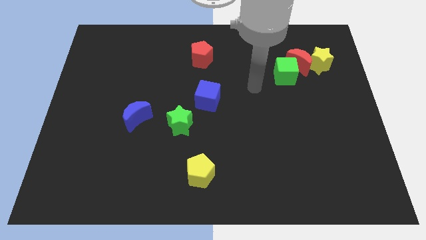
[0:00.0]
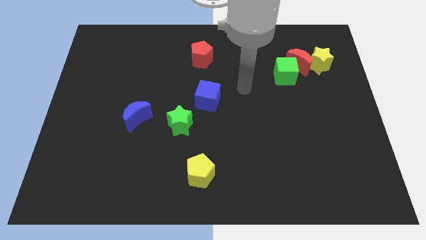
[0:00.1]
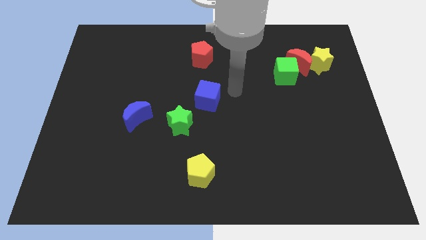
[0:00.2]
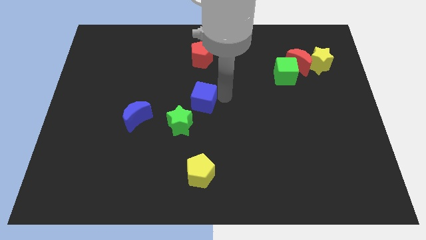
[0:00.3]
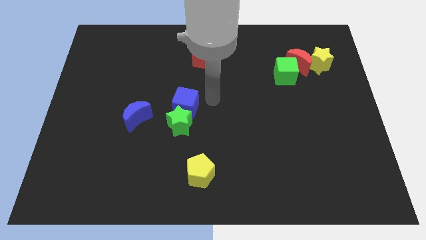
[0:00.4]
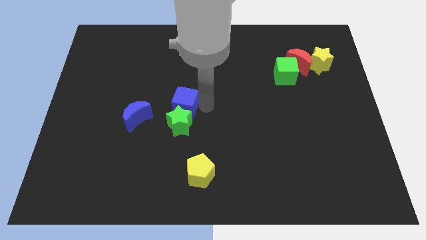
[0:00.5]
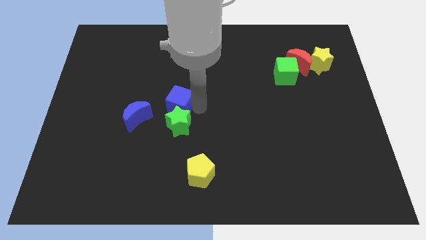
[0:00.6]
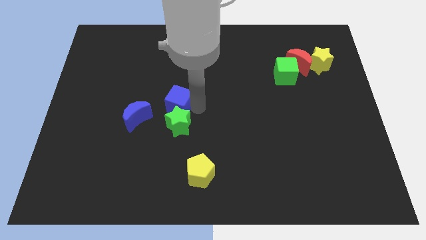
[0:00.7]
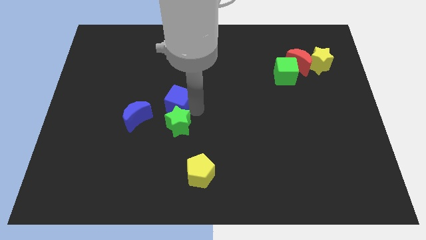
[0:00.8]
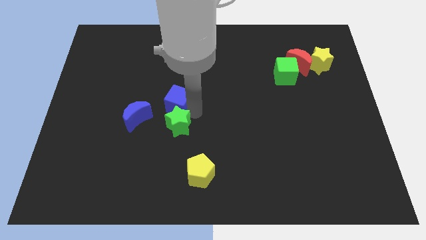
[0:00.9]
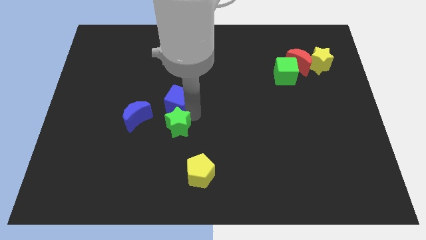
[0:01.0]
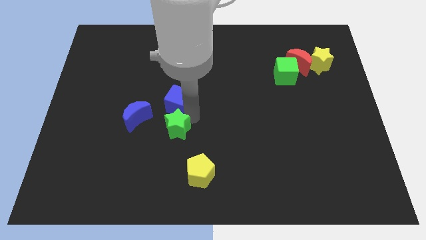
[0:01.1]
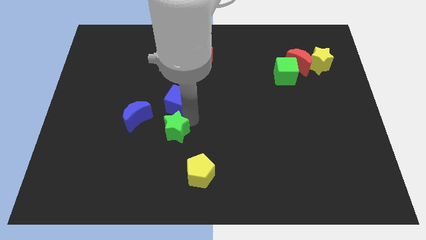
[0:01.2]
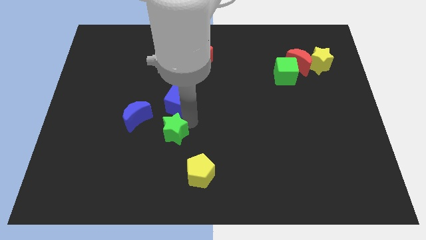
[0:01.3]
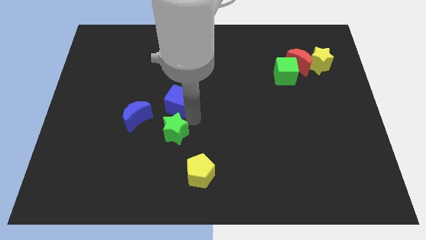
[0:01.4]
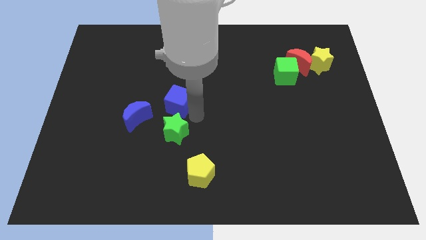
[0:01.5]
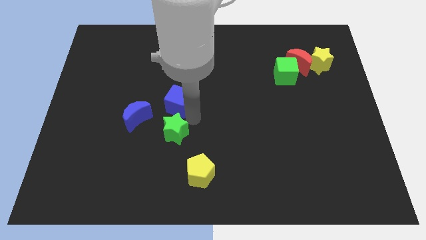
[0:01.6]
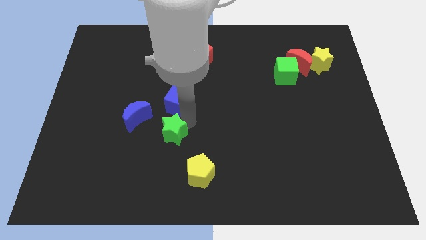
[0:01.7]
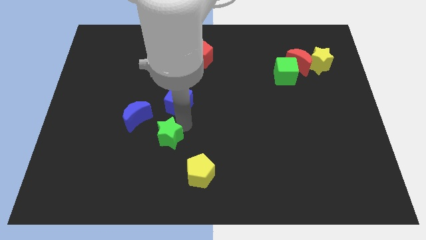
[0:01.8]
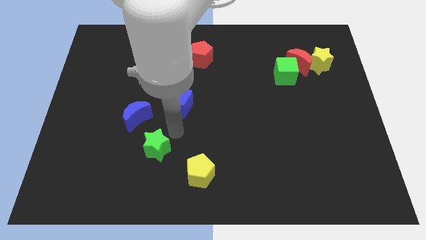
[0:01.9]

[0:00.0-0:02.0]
move the green star a bit down and left diagonally

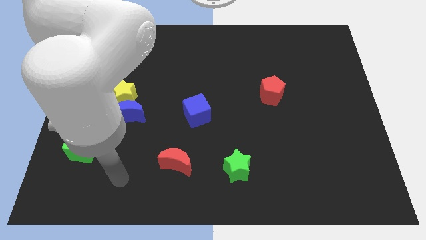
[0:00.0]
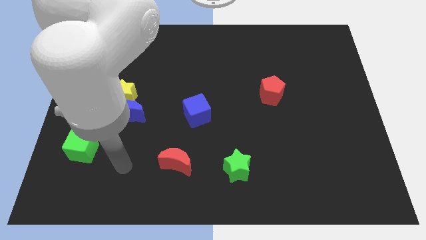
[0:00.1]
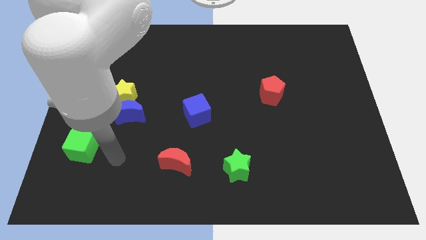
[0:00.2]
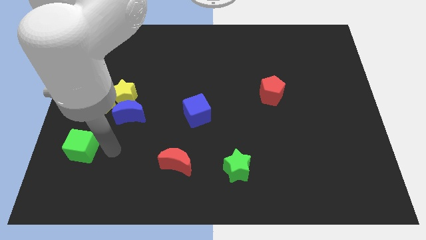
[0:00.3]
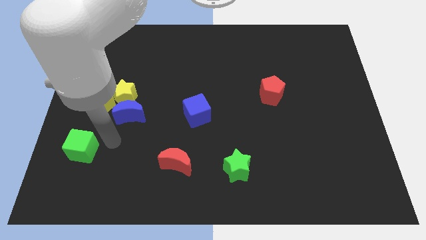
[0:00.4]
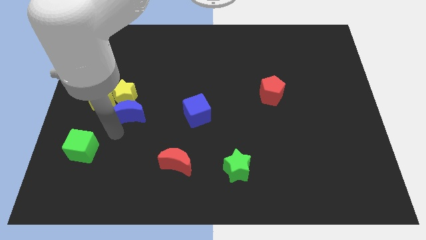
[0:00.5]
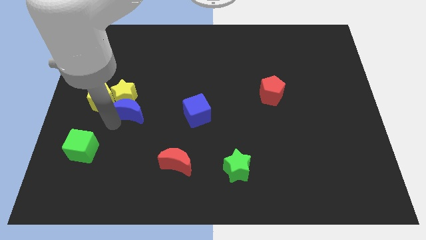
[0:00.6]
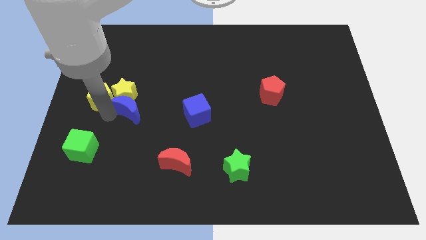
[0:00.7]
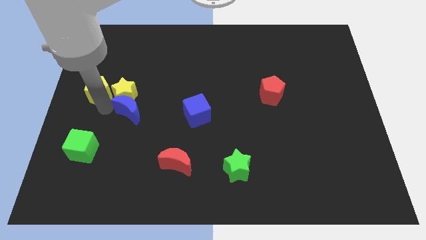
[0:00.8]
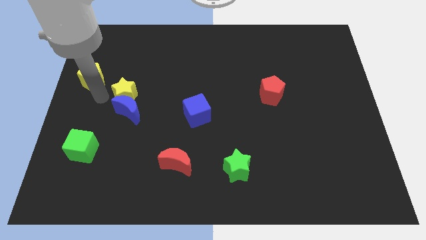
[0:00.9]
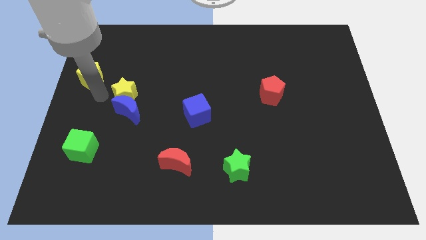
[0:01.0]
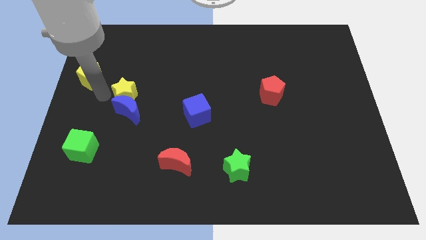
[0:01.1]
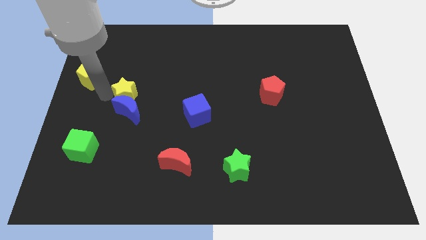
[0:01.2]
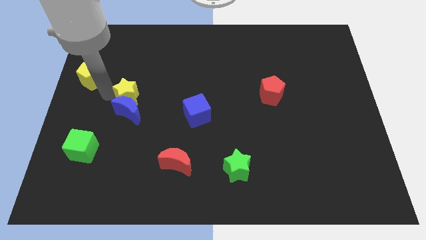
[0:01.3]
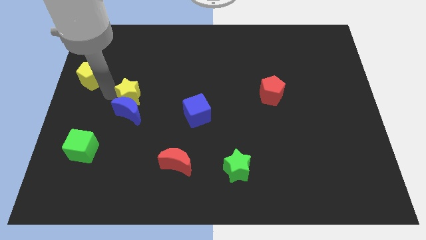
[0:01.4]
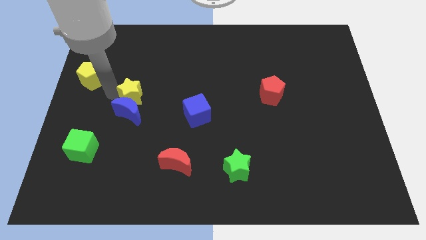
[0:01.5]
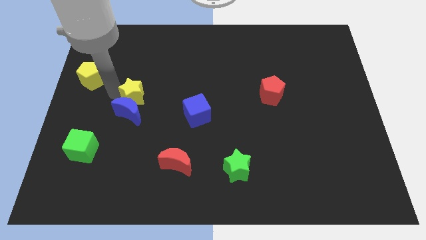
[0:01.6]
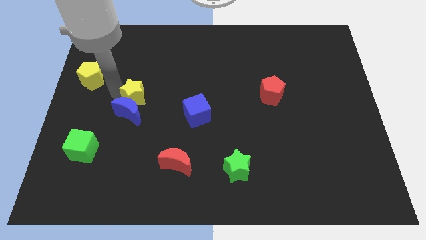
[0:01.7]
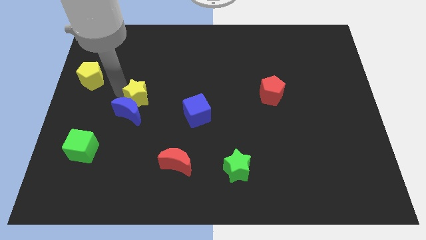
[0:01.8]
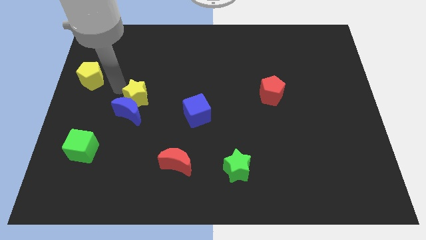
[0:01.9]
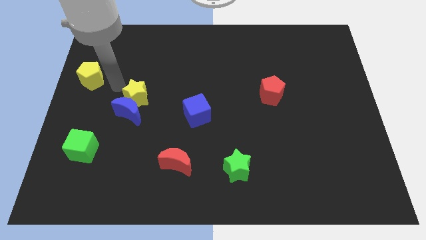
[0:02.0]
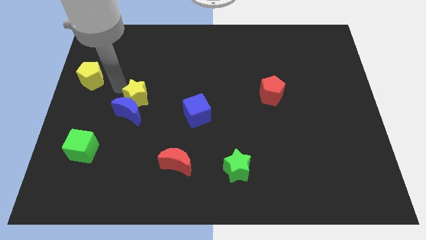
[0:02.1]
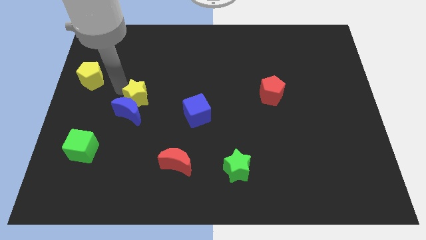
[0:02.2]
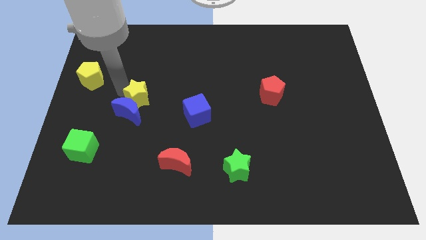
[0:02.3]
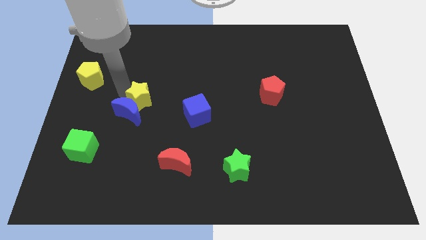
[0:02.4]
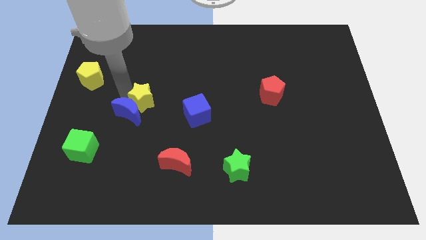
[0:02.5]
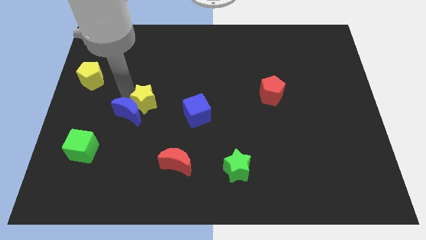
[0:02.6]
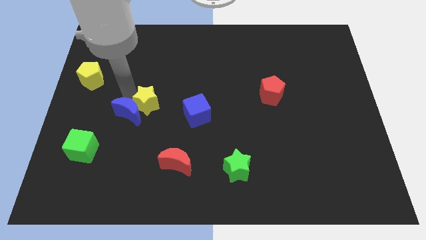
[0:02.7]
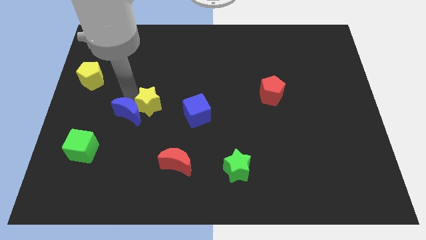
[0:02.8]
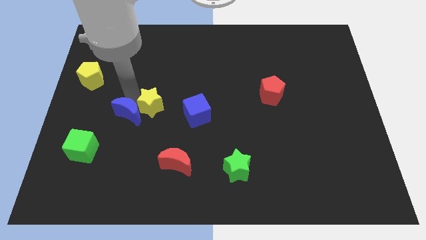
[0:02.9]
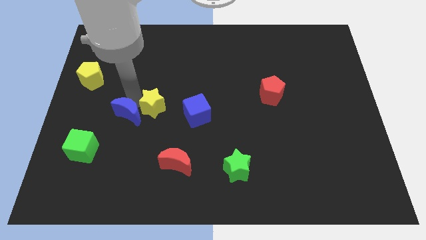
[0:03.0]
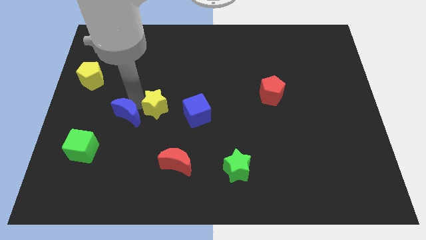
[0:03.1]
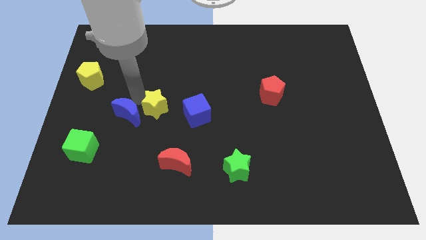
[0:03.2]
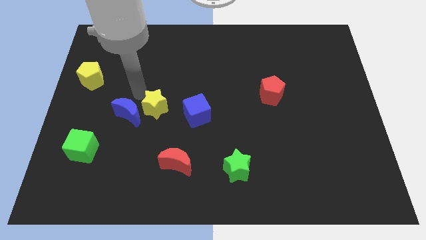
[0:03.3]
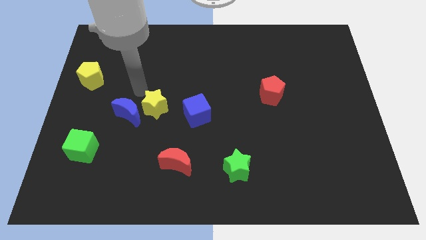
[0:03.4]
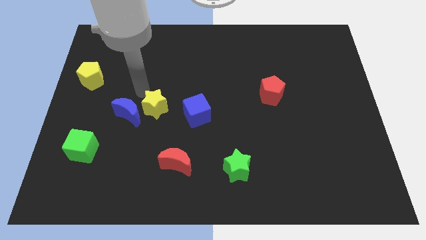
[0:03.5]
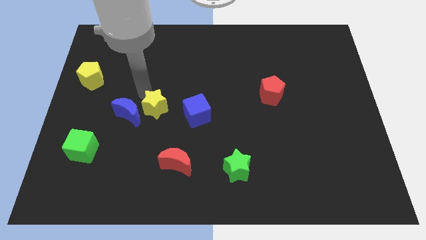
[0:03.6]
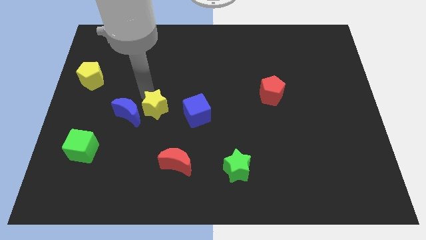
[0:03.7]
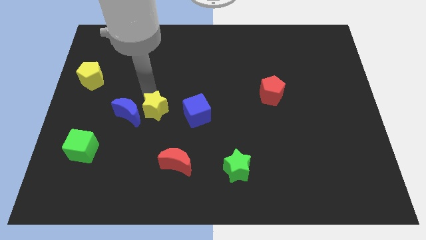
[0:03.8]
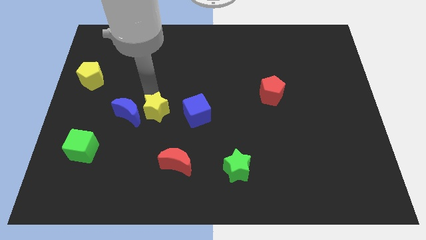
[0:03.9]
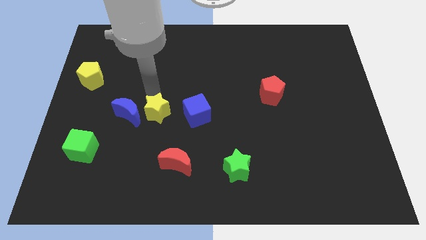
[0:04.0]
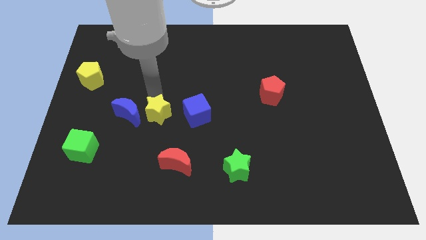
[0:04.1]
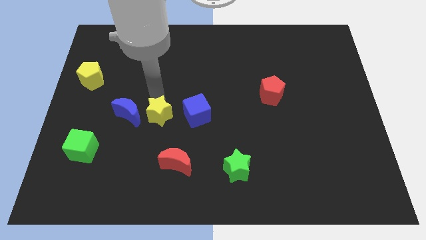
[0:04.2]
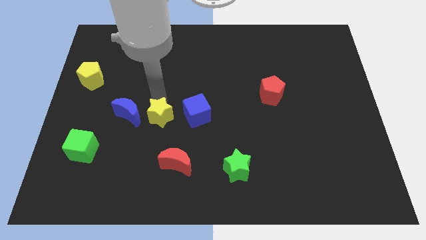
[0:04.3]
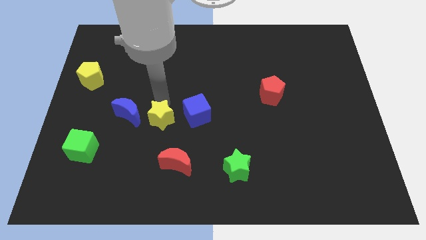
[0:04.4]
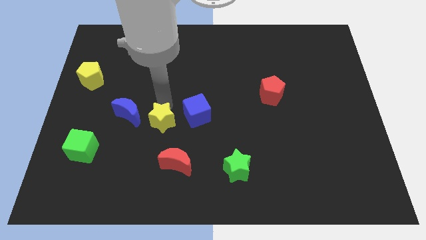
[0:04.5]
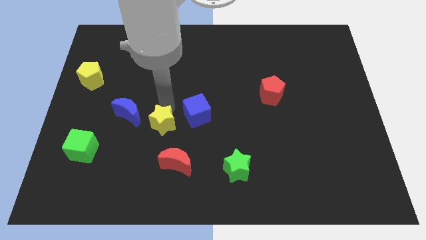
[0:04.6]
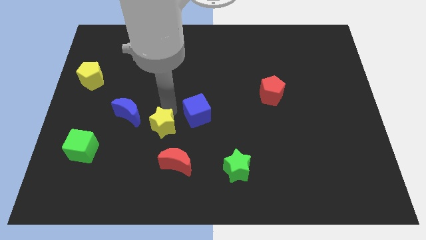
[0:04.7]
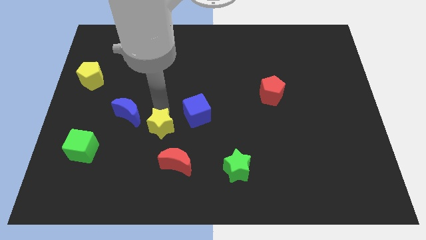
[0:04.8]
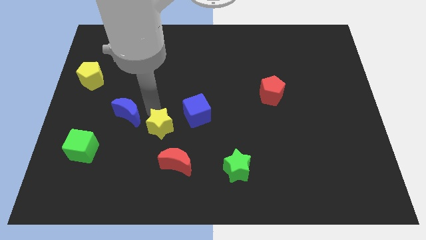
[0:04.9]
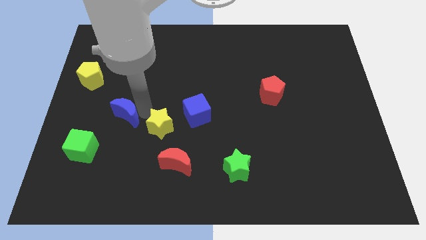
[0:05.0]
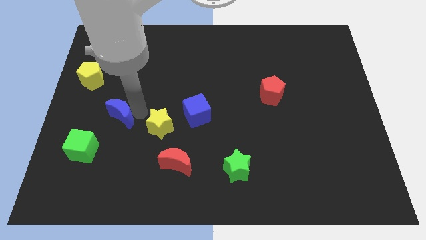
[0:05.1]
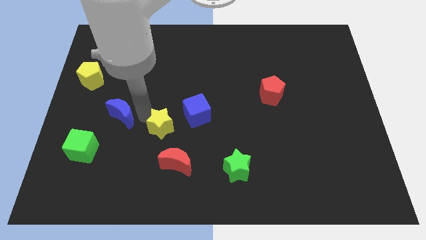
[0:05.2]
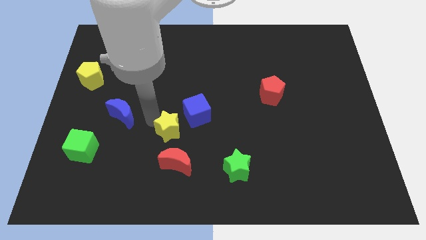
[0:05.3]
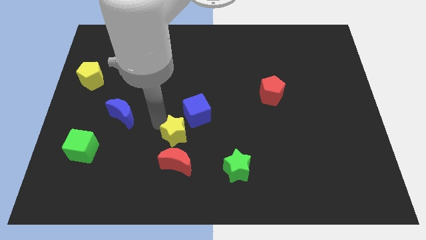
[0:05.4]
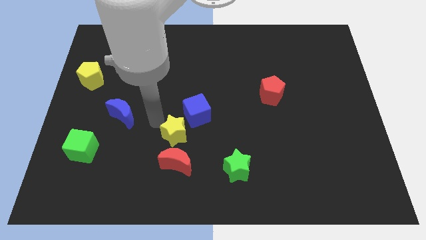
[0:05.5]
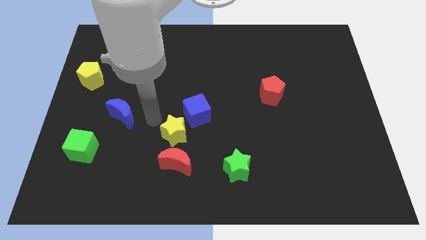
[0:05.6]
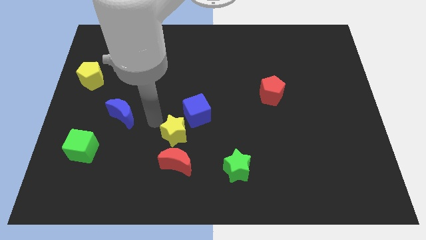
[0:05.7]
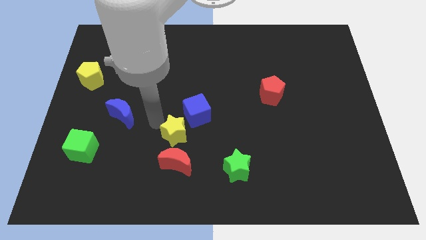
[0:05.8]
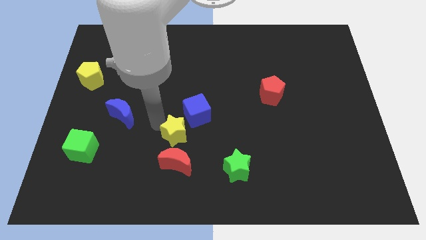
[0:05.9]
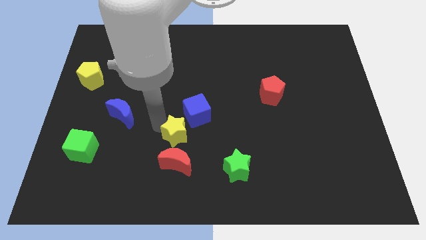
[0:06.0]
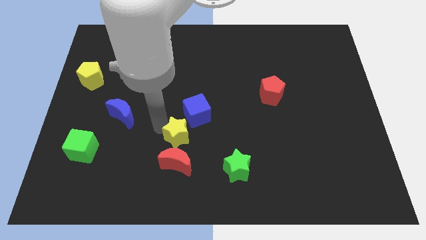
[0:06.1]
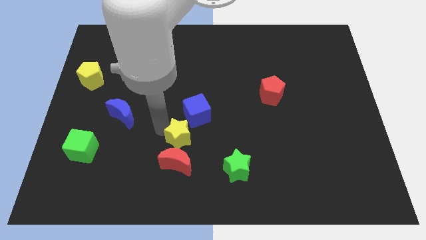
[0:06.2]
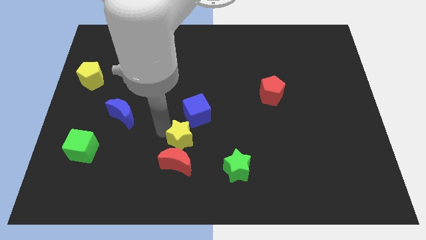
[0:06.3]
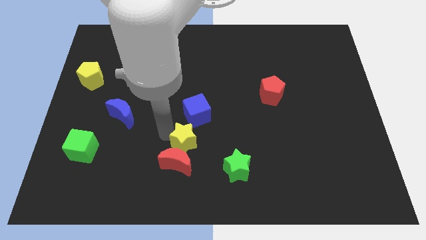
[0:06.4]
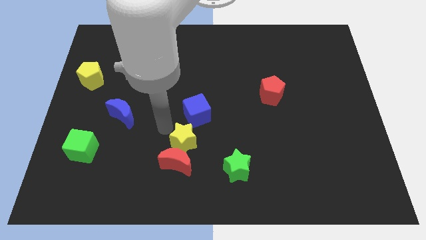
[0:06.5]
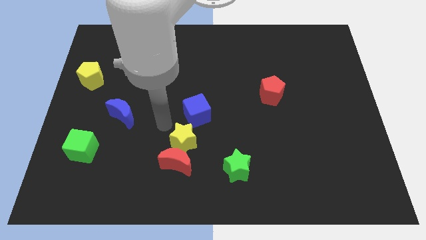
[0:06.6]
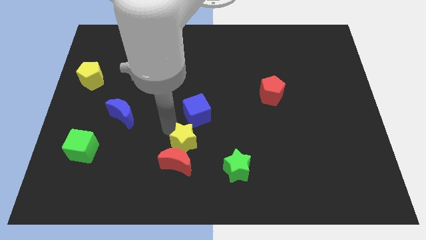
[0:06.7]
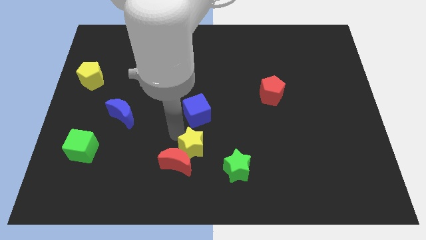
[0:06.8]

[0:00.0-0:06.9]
slide the yellow star diagonally down and to the right
